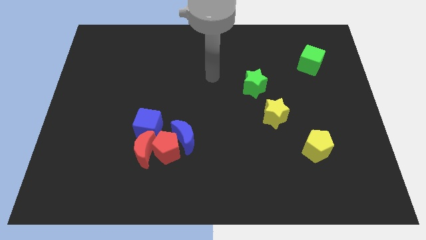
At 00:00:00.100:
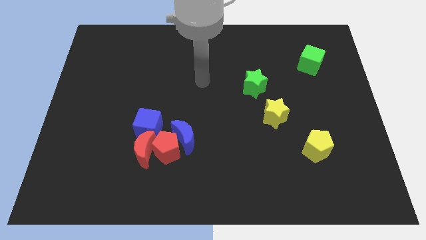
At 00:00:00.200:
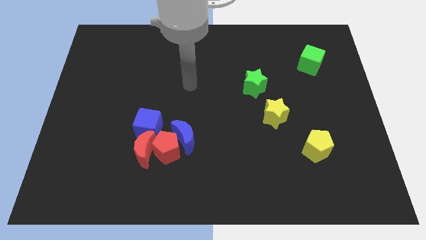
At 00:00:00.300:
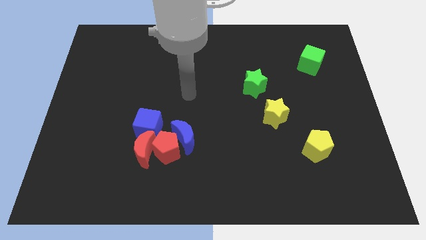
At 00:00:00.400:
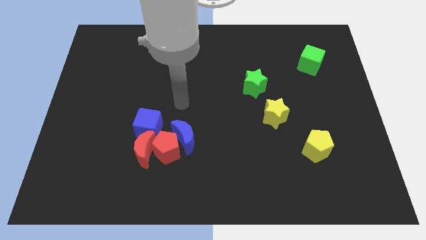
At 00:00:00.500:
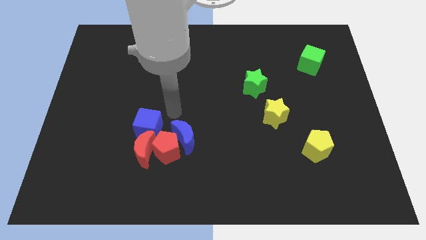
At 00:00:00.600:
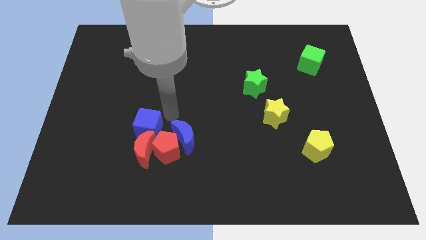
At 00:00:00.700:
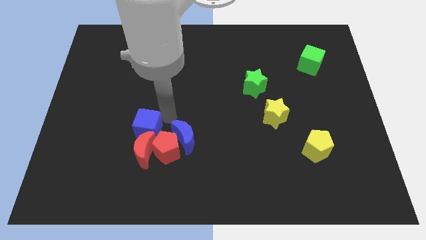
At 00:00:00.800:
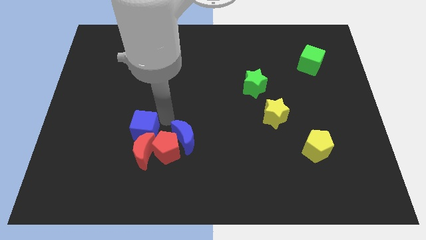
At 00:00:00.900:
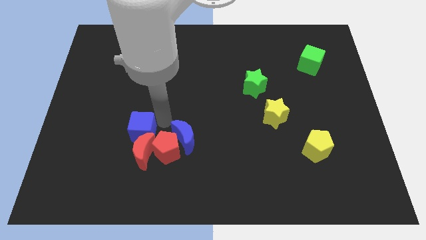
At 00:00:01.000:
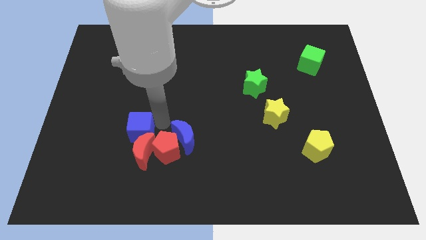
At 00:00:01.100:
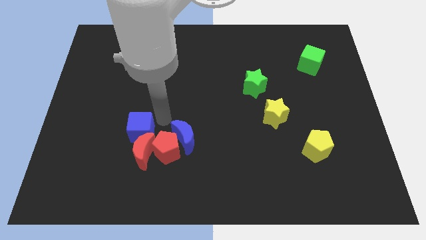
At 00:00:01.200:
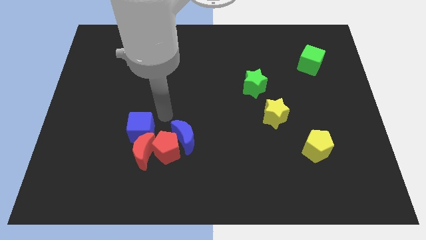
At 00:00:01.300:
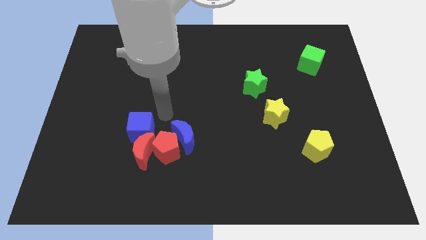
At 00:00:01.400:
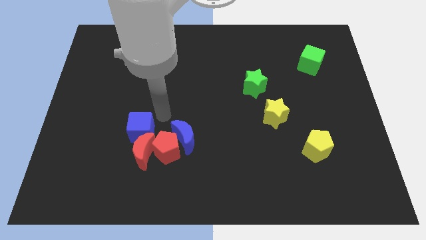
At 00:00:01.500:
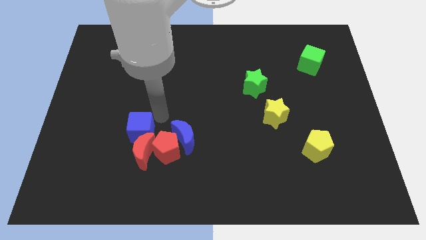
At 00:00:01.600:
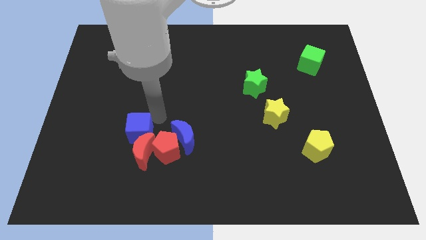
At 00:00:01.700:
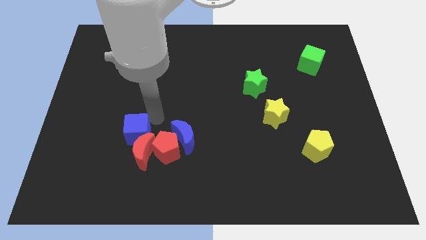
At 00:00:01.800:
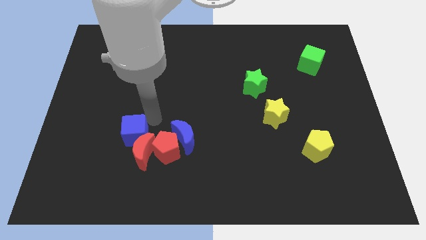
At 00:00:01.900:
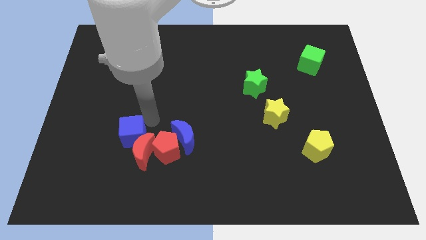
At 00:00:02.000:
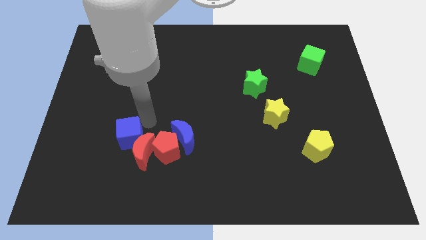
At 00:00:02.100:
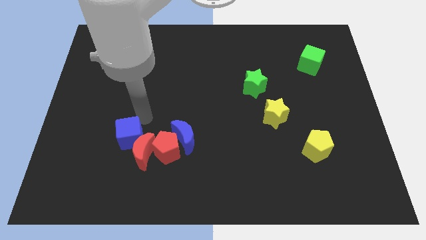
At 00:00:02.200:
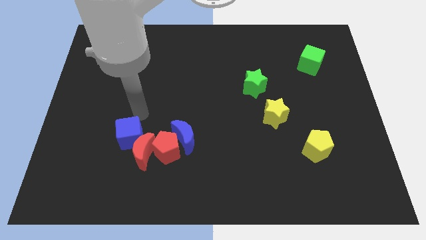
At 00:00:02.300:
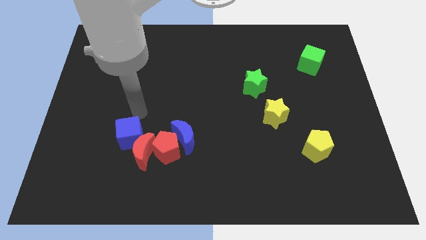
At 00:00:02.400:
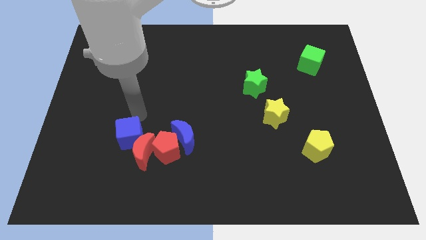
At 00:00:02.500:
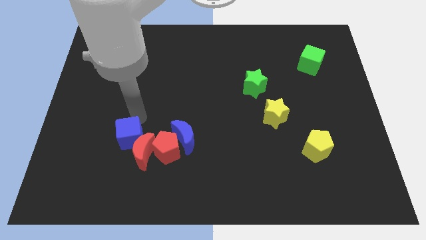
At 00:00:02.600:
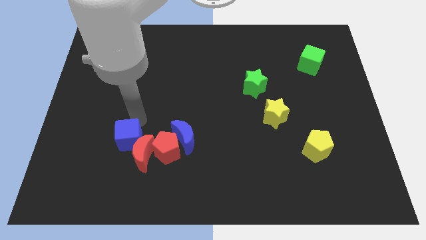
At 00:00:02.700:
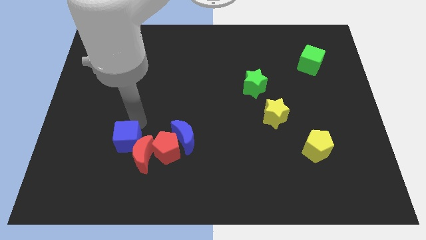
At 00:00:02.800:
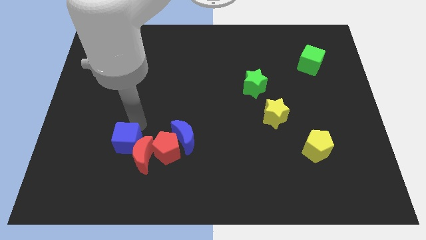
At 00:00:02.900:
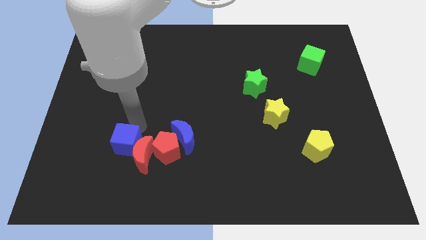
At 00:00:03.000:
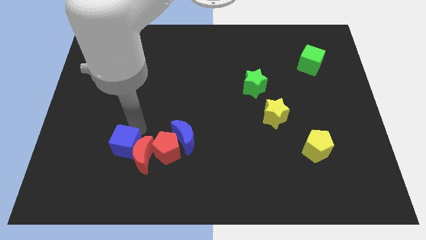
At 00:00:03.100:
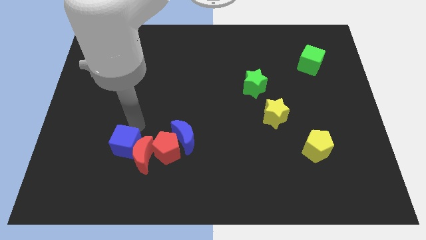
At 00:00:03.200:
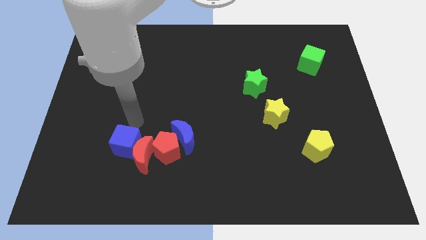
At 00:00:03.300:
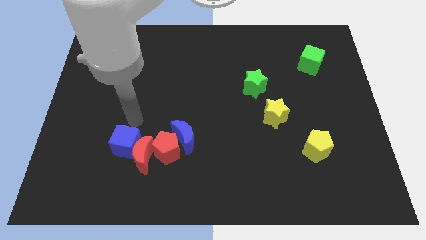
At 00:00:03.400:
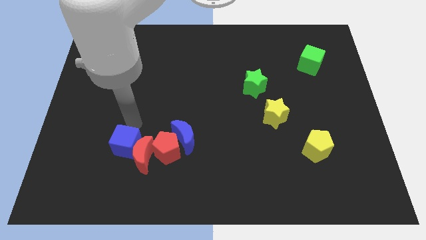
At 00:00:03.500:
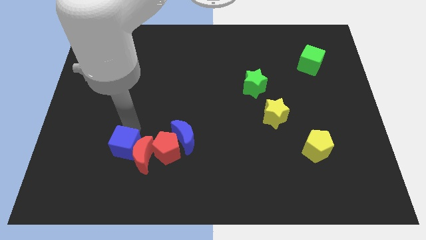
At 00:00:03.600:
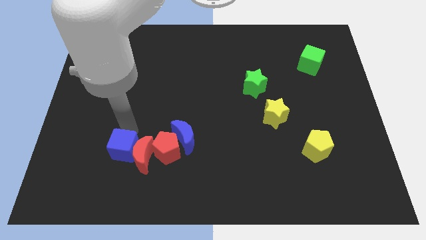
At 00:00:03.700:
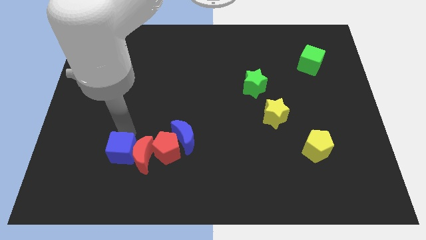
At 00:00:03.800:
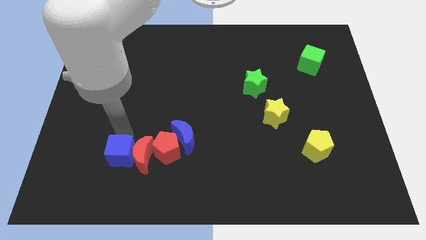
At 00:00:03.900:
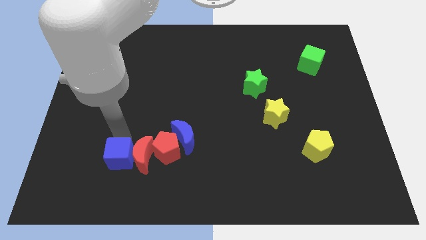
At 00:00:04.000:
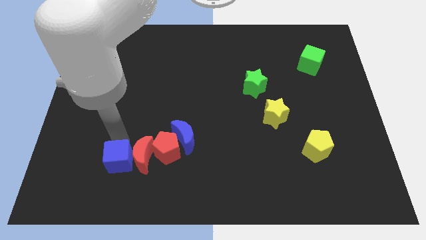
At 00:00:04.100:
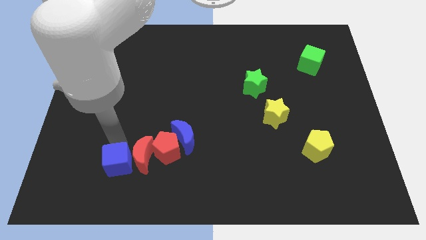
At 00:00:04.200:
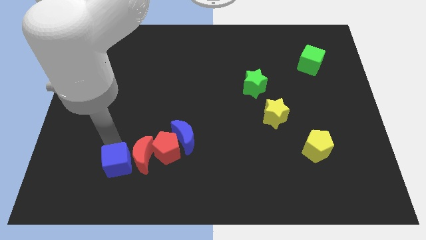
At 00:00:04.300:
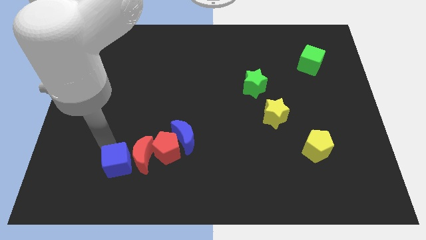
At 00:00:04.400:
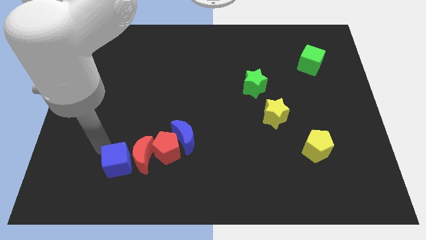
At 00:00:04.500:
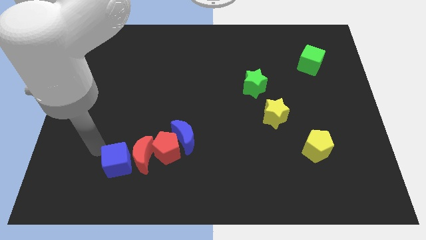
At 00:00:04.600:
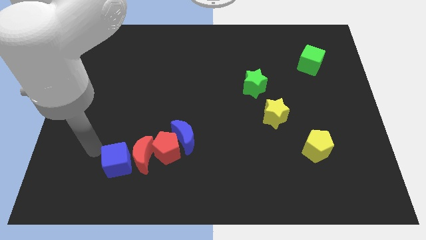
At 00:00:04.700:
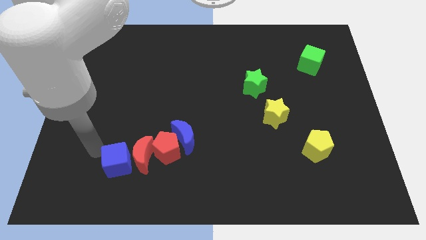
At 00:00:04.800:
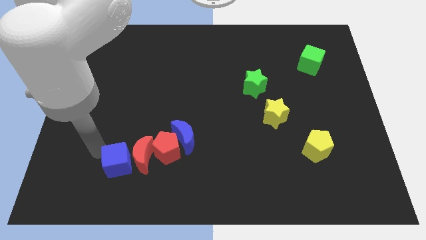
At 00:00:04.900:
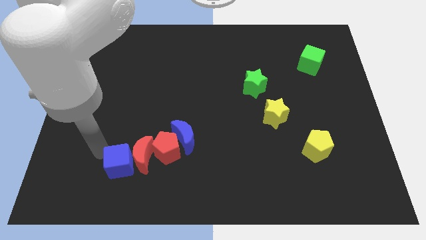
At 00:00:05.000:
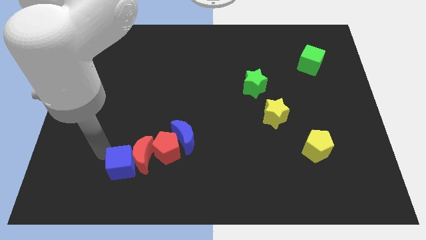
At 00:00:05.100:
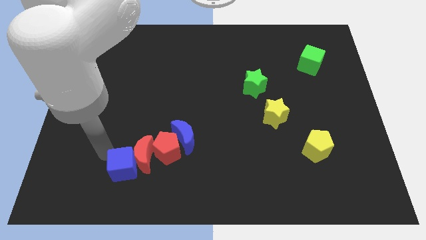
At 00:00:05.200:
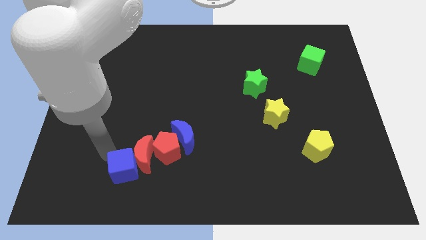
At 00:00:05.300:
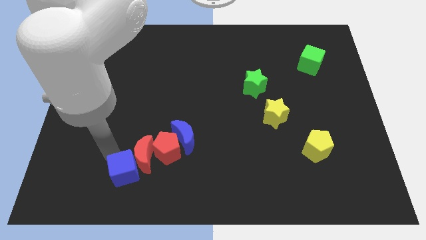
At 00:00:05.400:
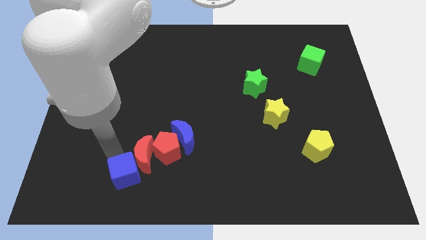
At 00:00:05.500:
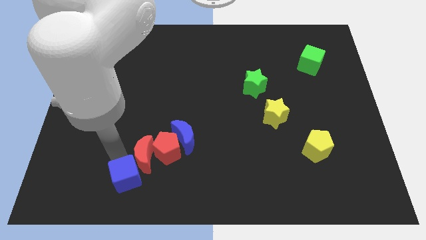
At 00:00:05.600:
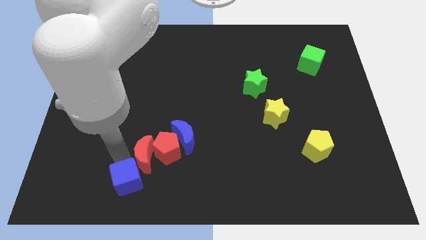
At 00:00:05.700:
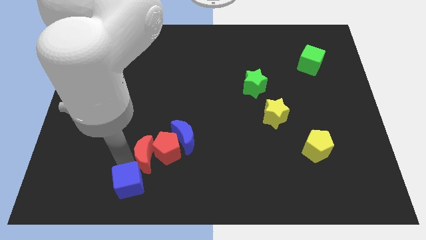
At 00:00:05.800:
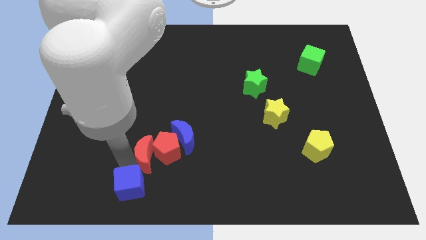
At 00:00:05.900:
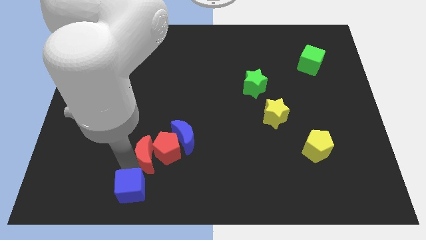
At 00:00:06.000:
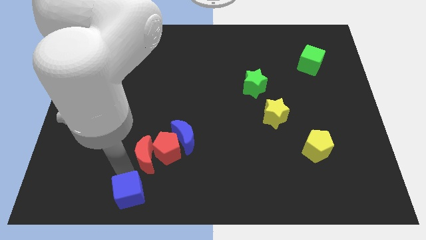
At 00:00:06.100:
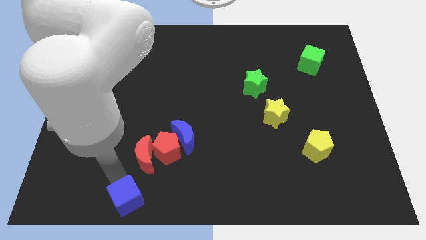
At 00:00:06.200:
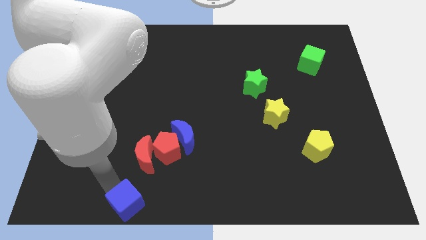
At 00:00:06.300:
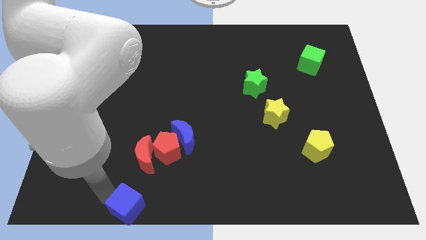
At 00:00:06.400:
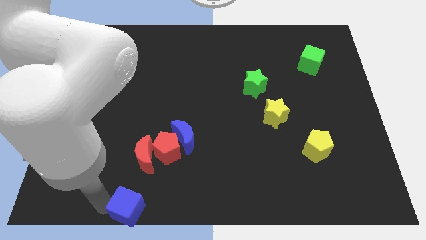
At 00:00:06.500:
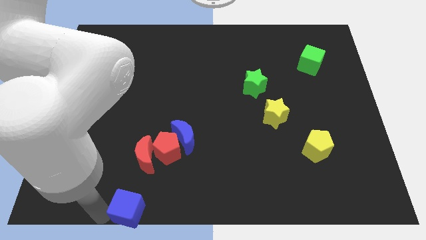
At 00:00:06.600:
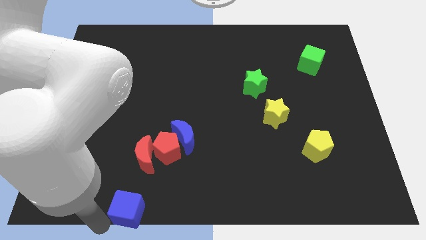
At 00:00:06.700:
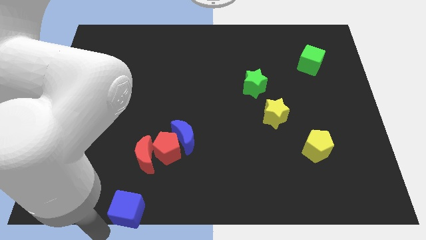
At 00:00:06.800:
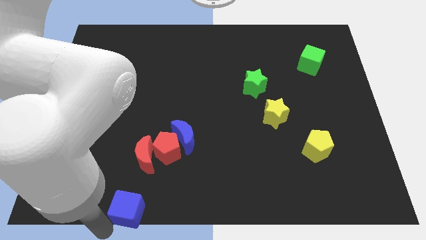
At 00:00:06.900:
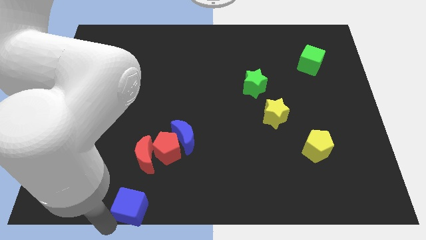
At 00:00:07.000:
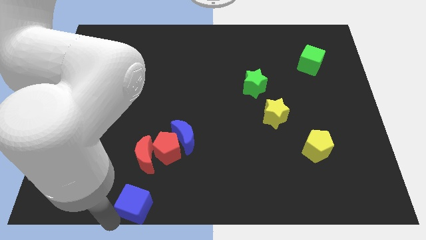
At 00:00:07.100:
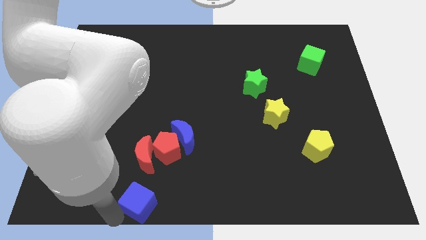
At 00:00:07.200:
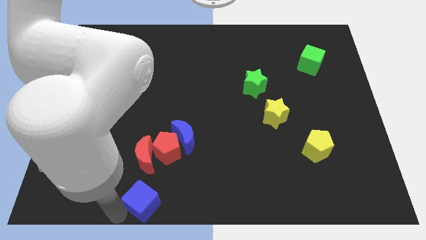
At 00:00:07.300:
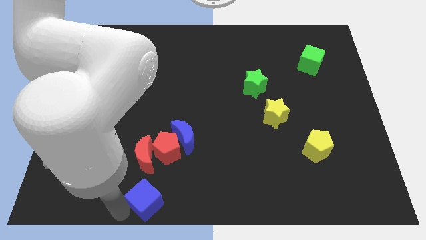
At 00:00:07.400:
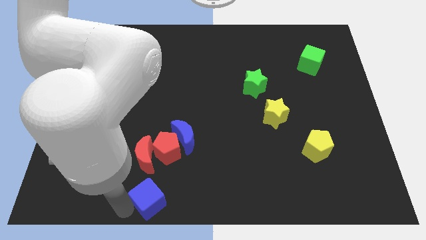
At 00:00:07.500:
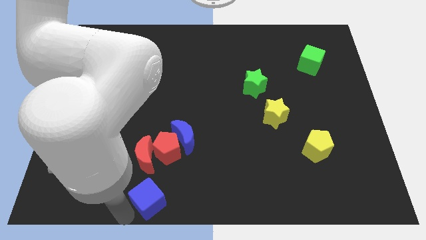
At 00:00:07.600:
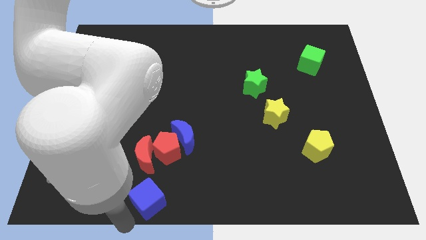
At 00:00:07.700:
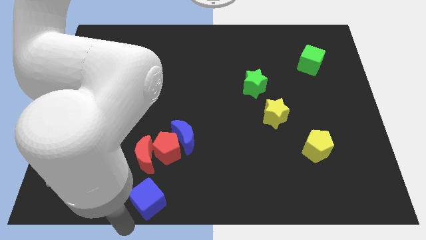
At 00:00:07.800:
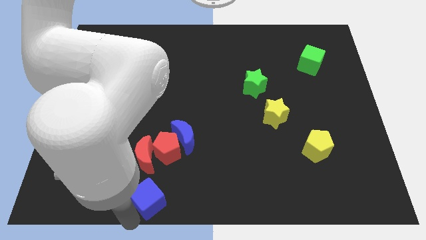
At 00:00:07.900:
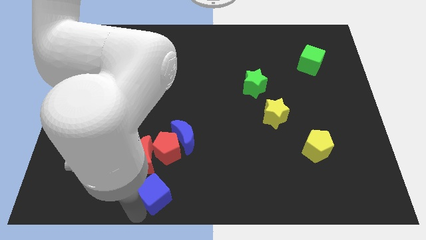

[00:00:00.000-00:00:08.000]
push the blue cube to the bottom right side of the red moon
